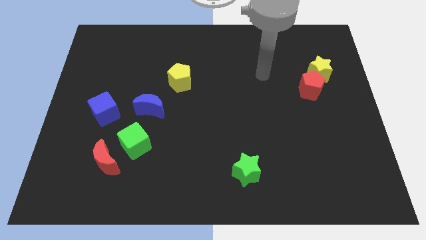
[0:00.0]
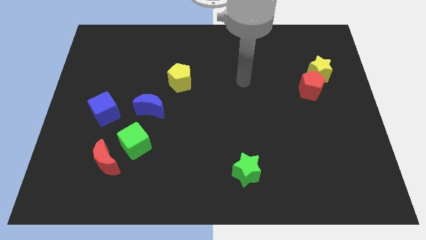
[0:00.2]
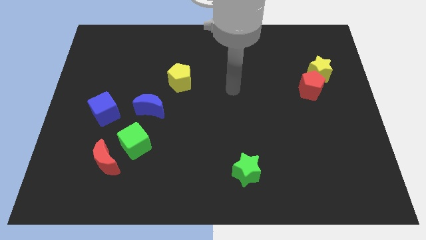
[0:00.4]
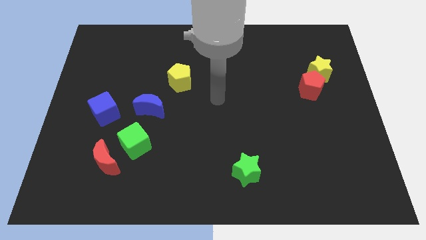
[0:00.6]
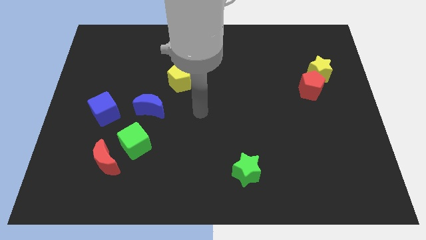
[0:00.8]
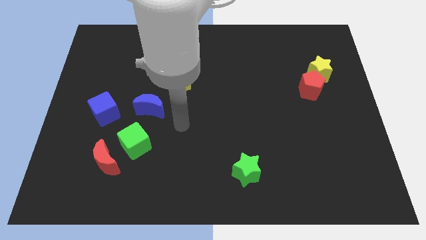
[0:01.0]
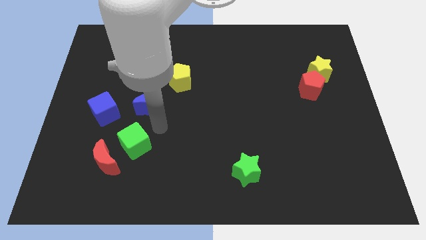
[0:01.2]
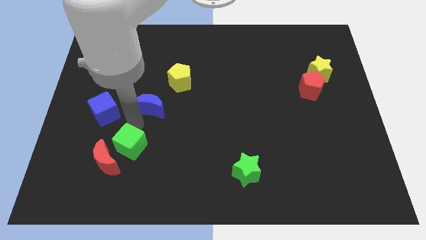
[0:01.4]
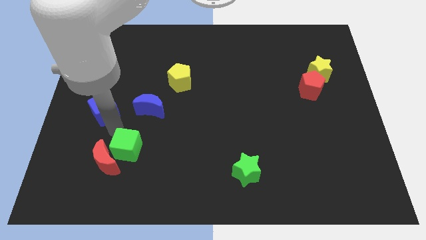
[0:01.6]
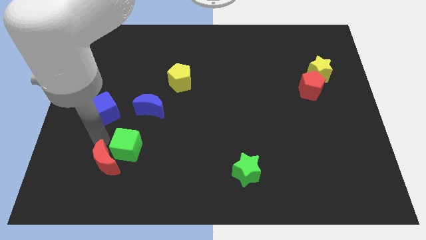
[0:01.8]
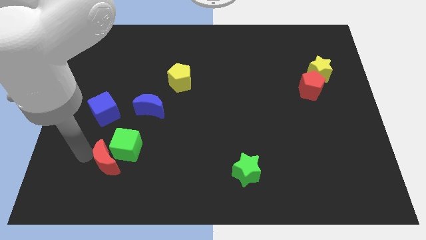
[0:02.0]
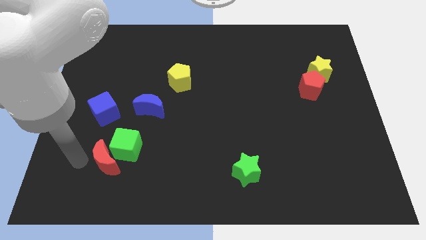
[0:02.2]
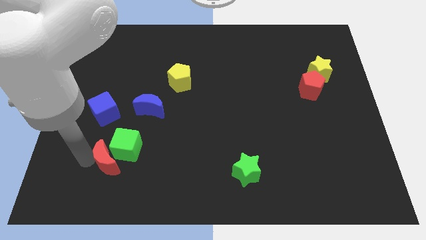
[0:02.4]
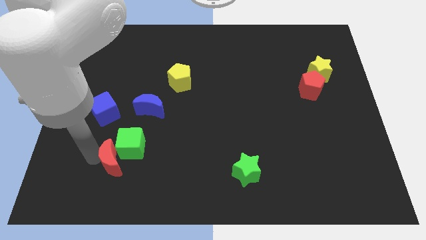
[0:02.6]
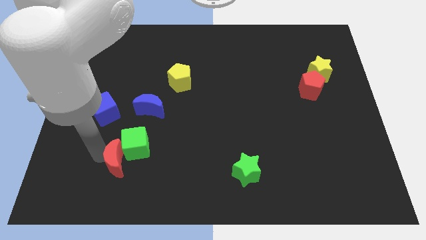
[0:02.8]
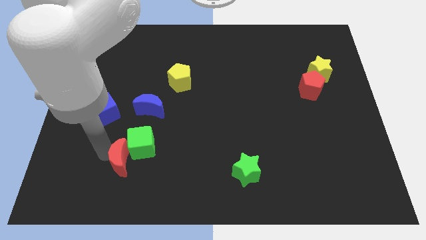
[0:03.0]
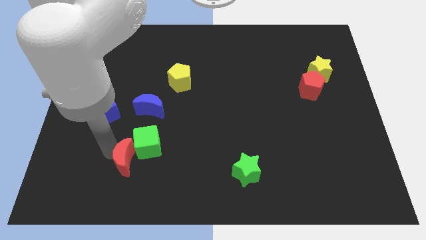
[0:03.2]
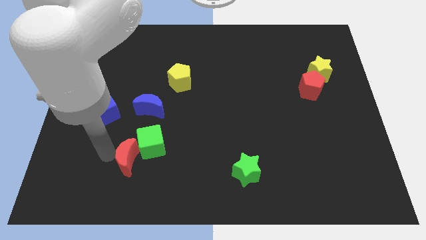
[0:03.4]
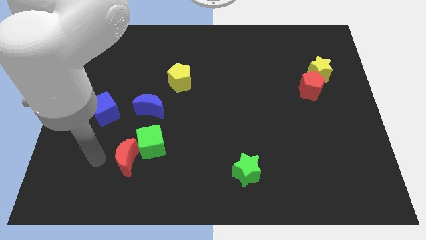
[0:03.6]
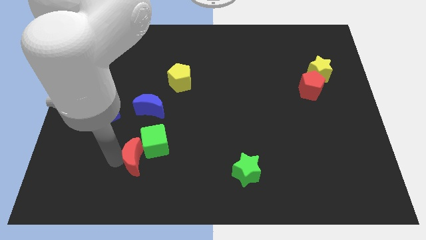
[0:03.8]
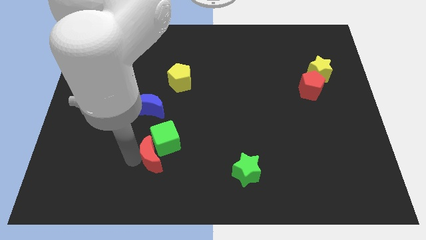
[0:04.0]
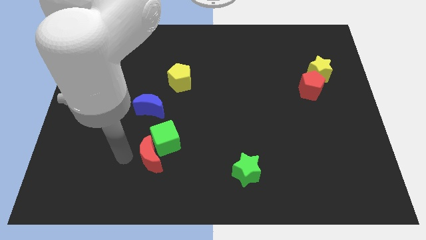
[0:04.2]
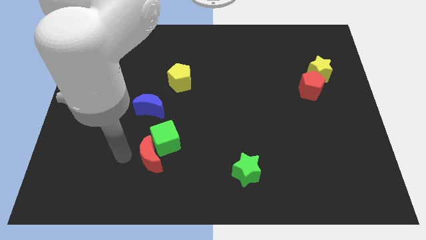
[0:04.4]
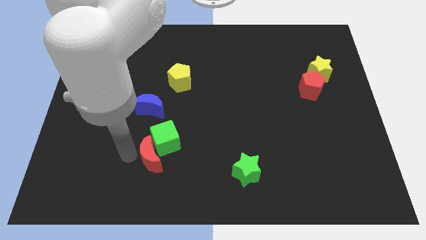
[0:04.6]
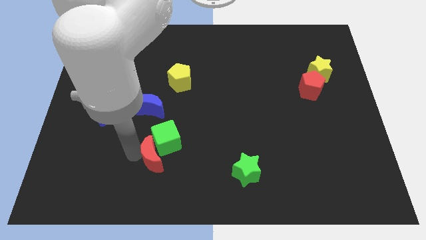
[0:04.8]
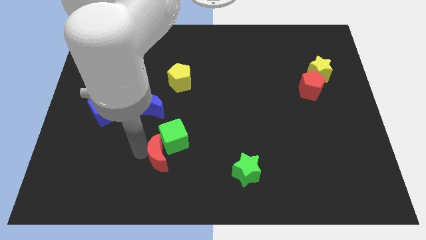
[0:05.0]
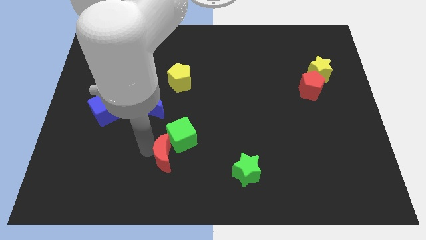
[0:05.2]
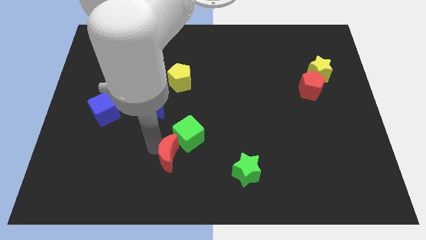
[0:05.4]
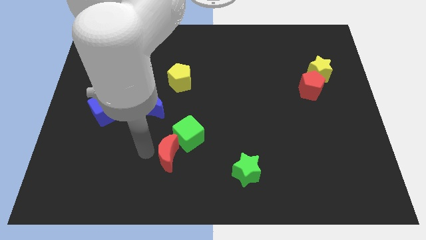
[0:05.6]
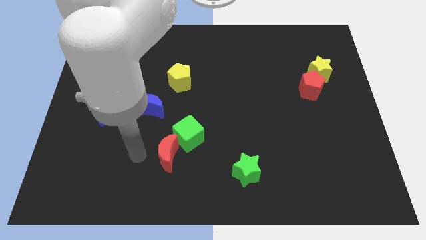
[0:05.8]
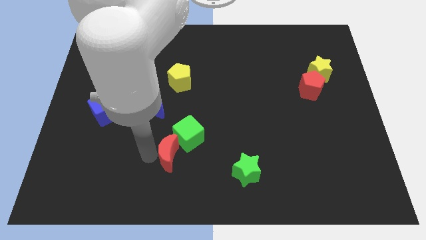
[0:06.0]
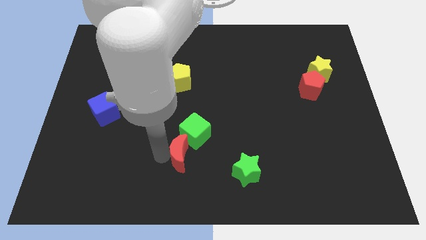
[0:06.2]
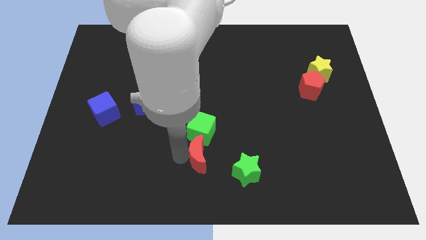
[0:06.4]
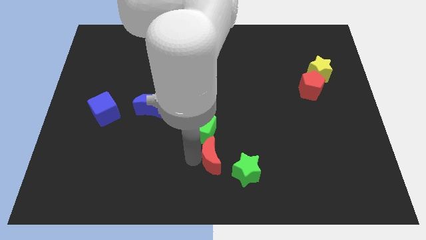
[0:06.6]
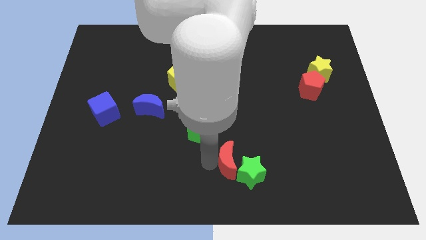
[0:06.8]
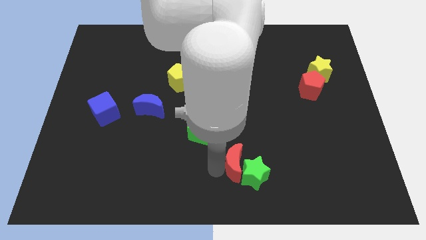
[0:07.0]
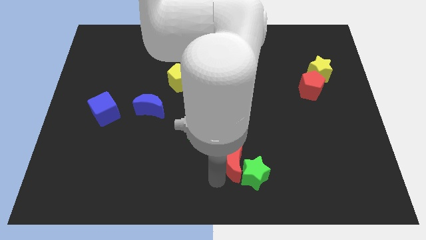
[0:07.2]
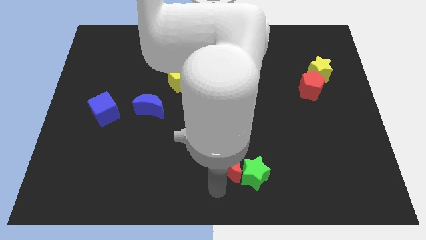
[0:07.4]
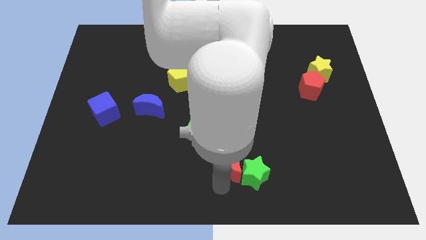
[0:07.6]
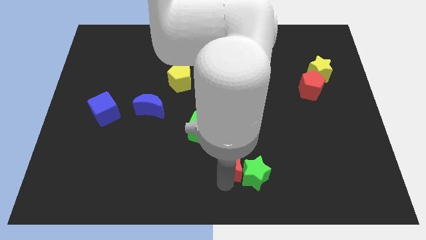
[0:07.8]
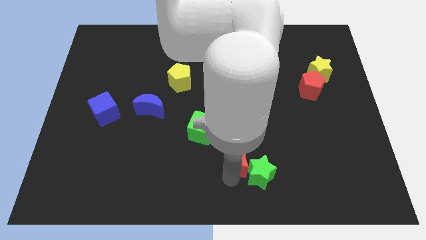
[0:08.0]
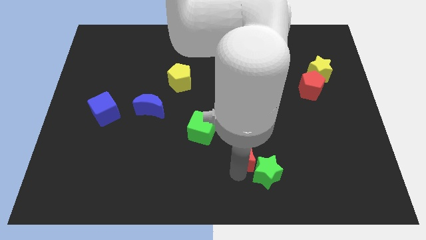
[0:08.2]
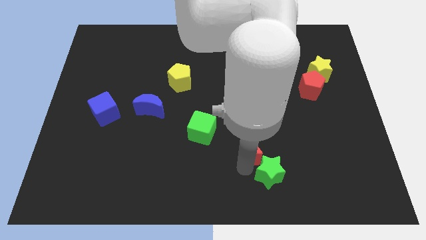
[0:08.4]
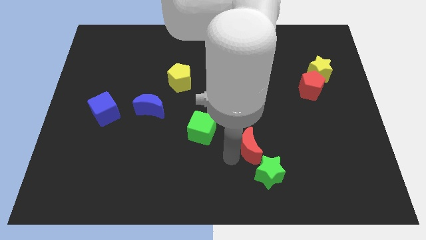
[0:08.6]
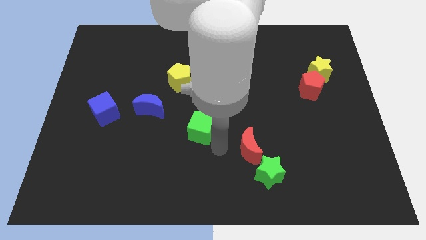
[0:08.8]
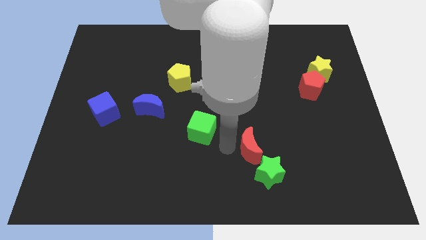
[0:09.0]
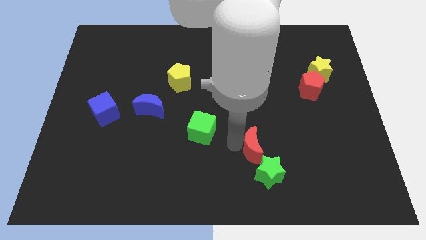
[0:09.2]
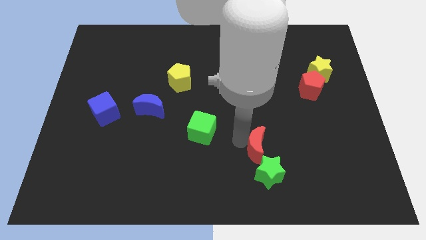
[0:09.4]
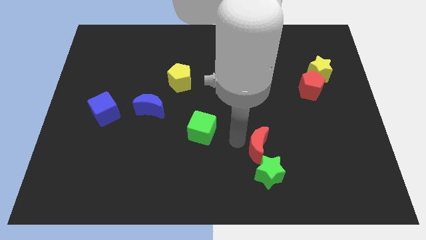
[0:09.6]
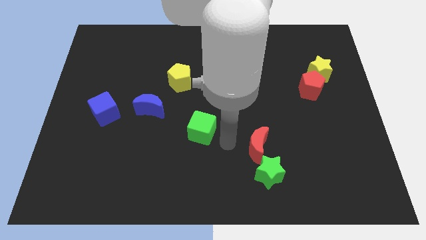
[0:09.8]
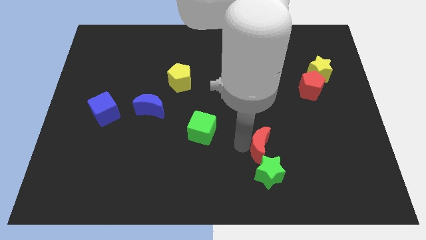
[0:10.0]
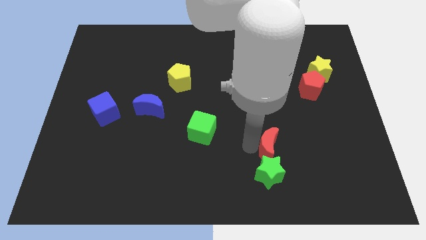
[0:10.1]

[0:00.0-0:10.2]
put the red moon diagonally up and to the right of the green star

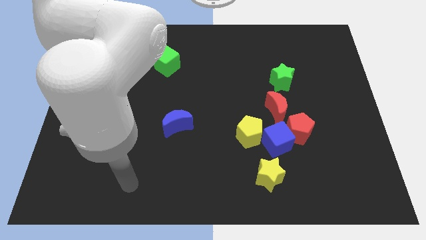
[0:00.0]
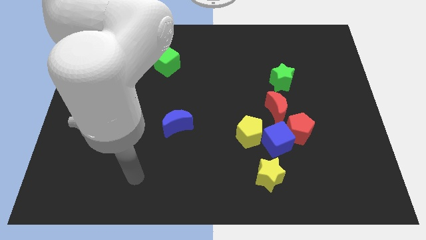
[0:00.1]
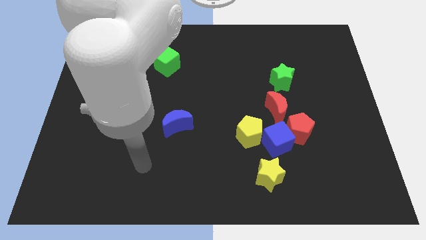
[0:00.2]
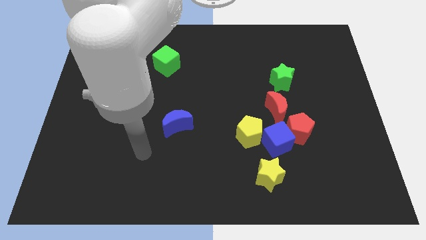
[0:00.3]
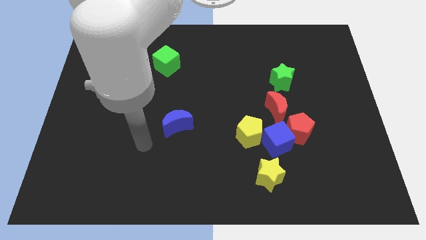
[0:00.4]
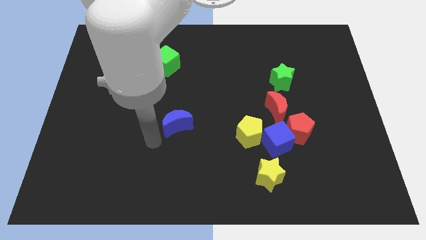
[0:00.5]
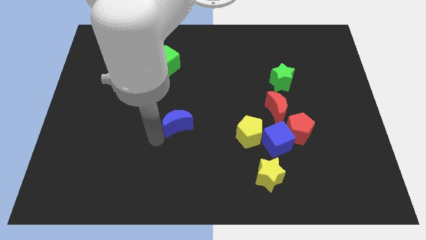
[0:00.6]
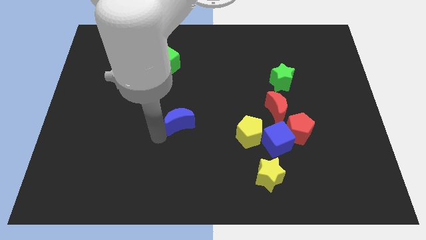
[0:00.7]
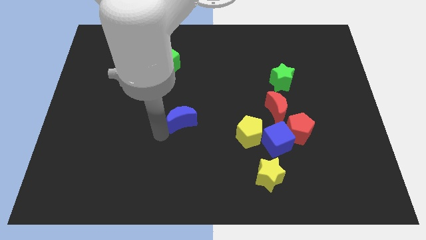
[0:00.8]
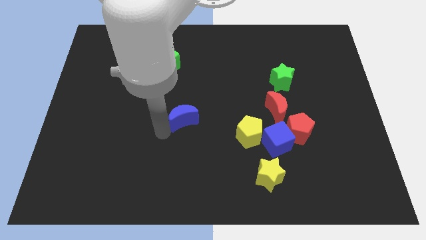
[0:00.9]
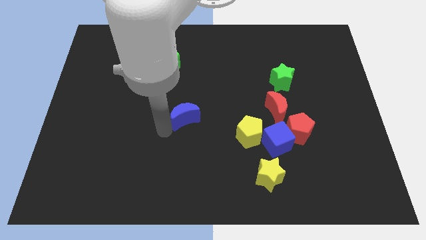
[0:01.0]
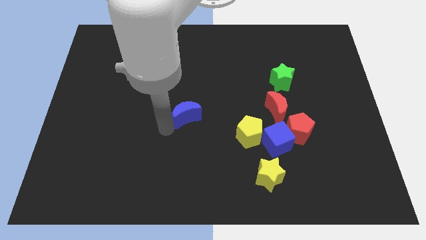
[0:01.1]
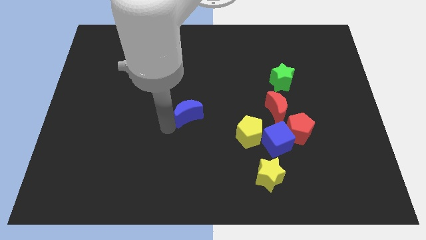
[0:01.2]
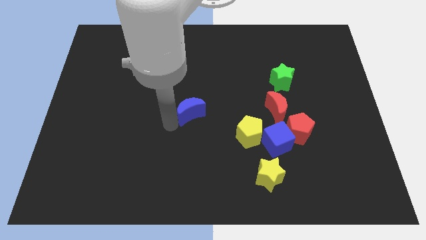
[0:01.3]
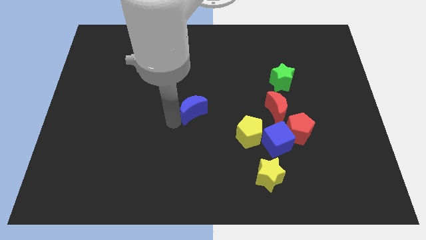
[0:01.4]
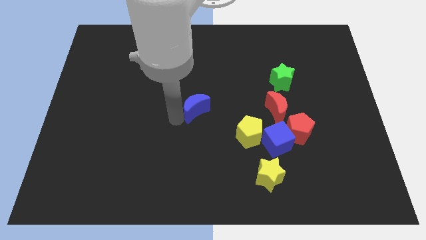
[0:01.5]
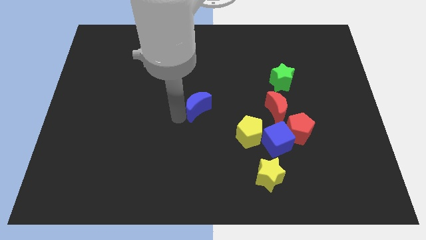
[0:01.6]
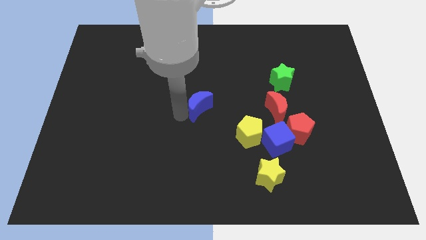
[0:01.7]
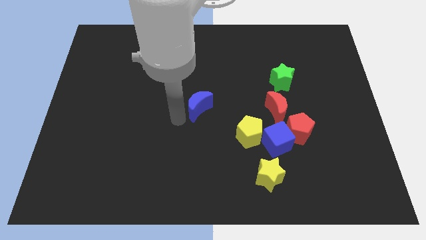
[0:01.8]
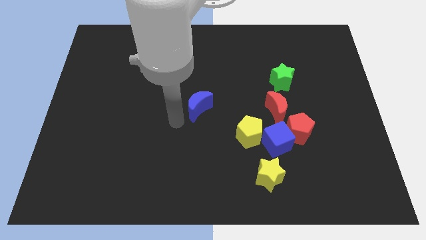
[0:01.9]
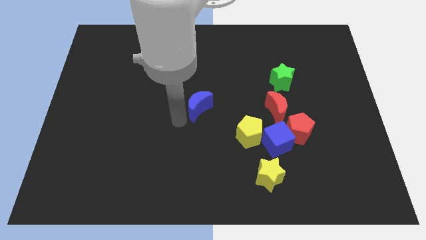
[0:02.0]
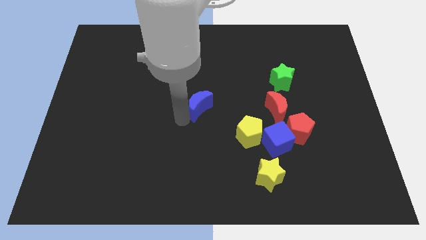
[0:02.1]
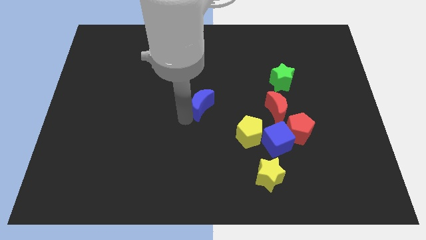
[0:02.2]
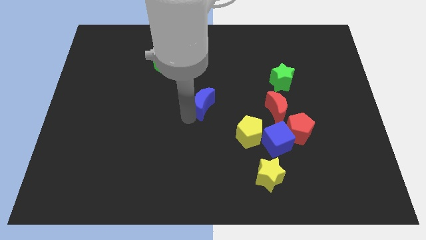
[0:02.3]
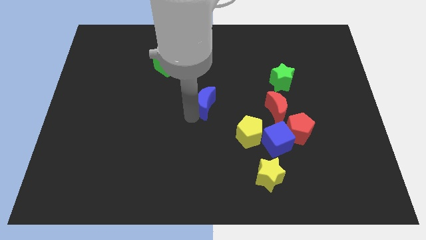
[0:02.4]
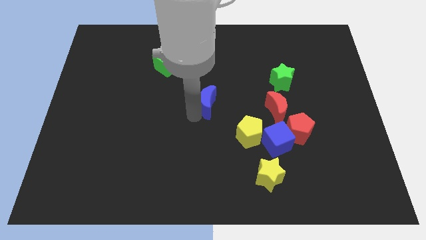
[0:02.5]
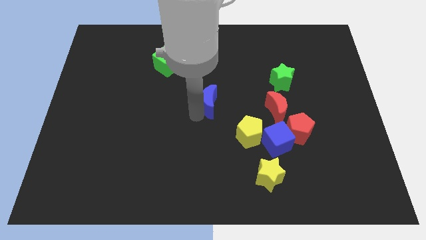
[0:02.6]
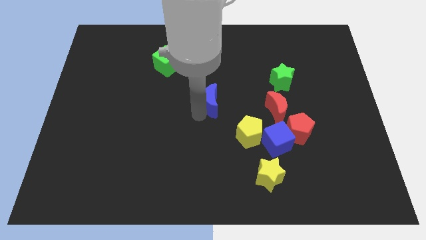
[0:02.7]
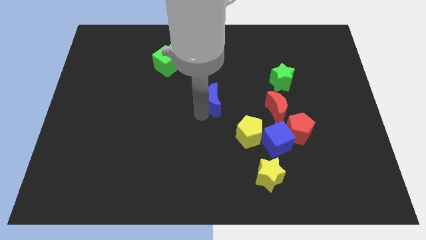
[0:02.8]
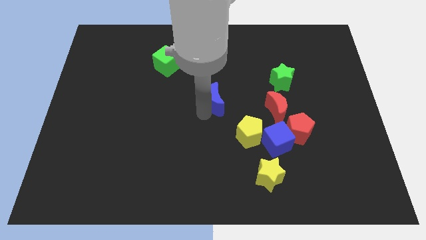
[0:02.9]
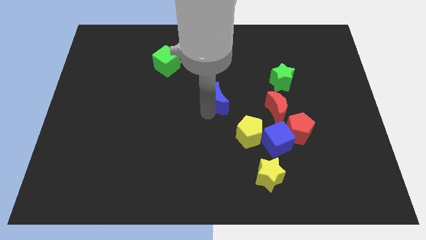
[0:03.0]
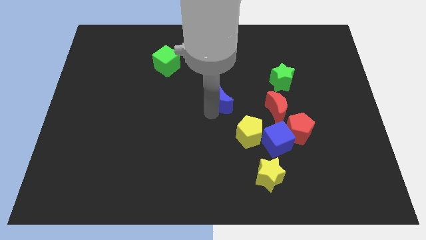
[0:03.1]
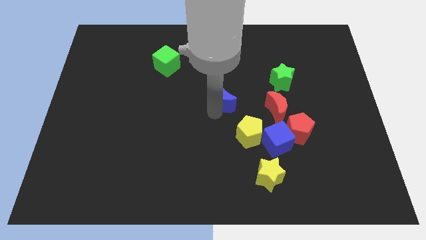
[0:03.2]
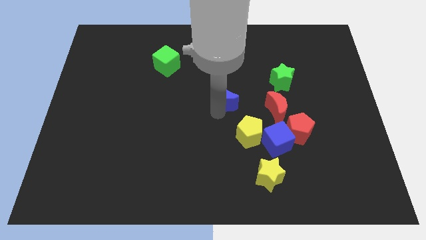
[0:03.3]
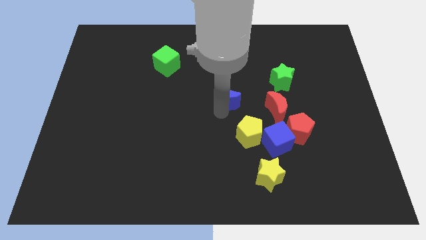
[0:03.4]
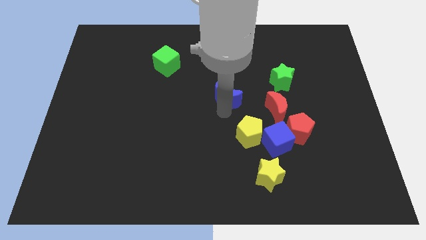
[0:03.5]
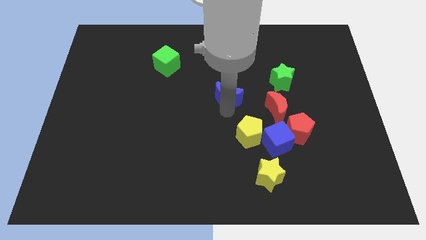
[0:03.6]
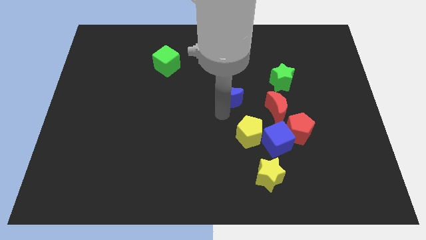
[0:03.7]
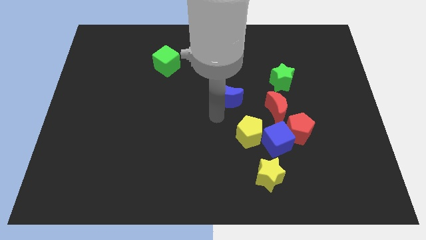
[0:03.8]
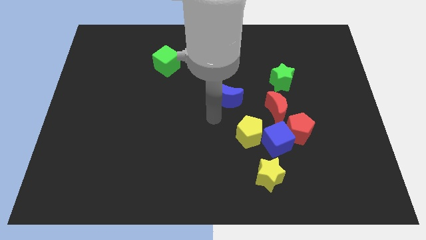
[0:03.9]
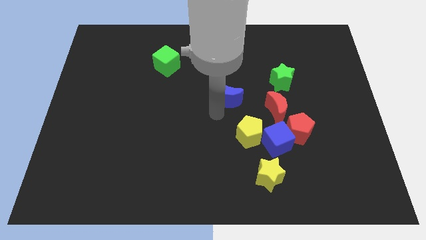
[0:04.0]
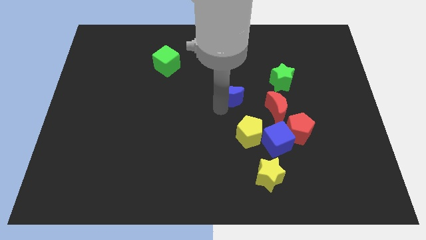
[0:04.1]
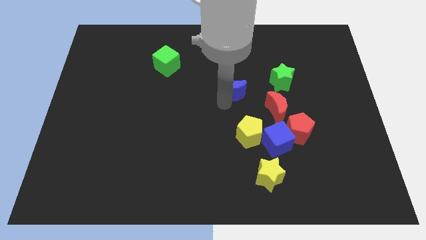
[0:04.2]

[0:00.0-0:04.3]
slide the blue moon just left of the green star
